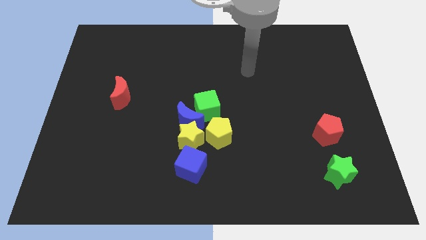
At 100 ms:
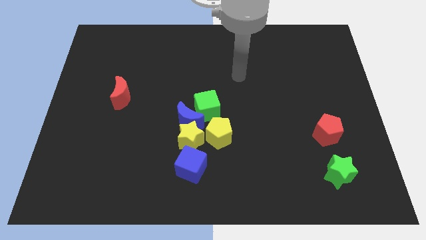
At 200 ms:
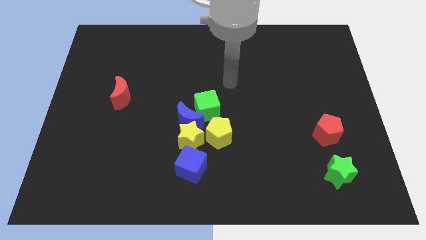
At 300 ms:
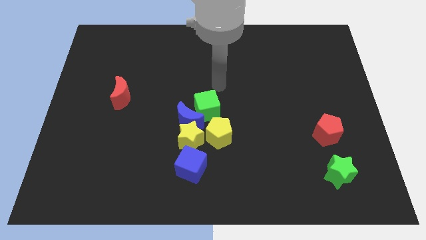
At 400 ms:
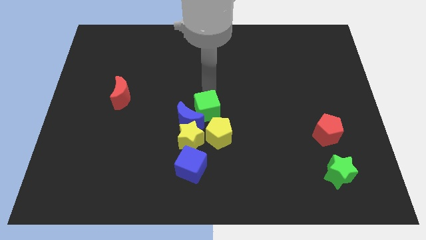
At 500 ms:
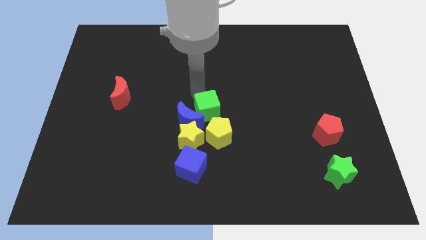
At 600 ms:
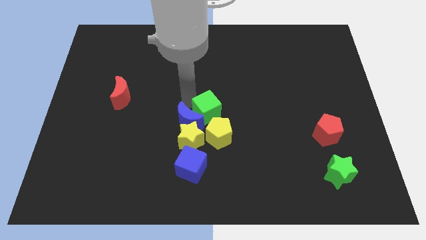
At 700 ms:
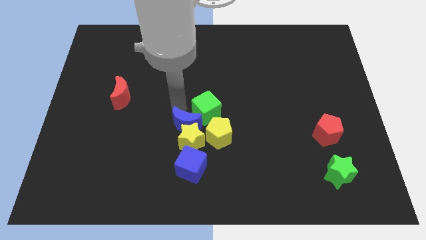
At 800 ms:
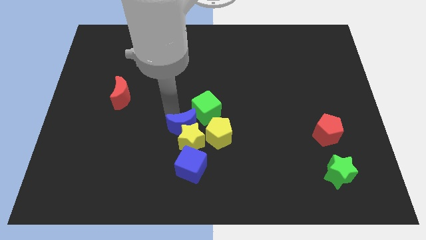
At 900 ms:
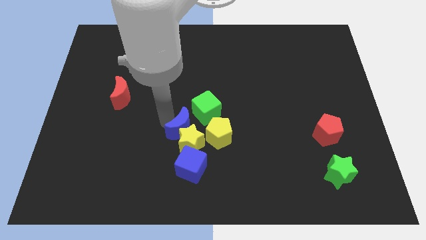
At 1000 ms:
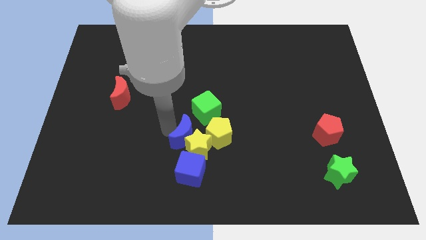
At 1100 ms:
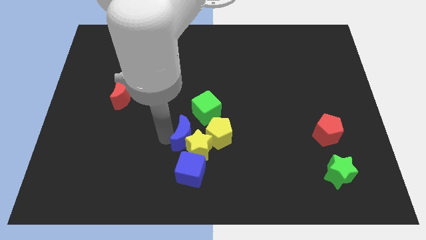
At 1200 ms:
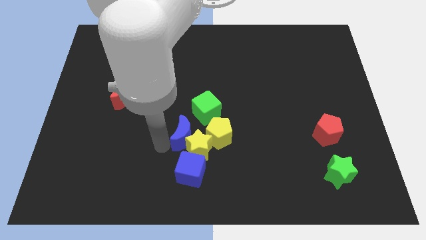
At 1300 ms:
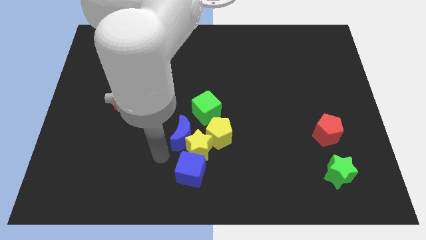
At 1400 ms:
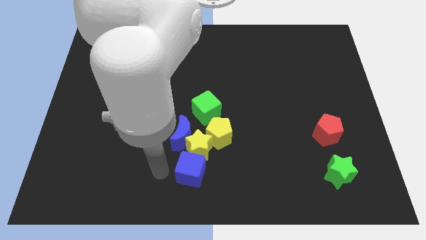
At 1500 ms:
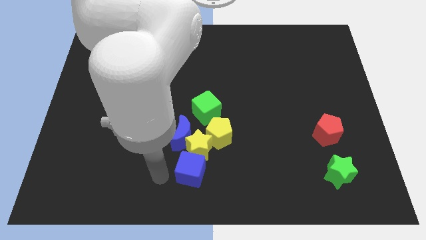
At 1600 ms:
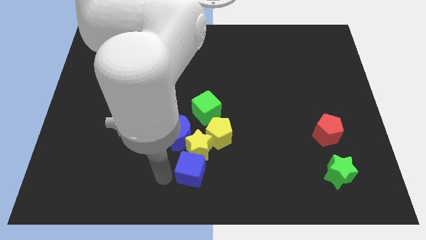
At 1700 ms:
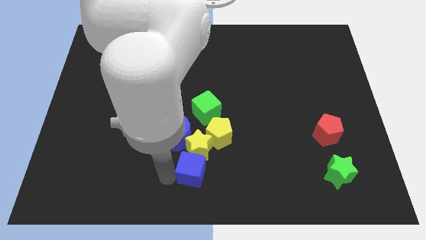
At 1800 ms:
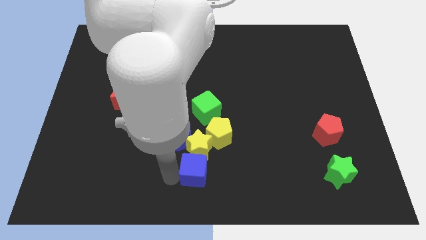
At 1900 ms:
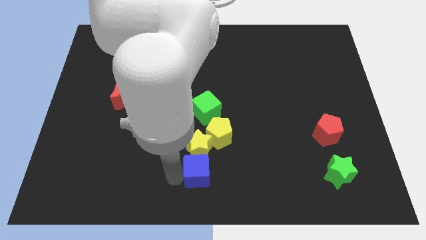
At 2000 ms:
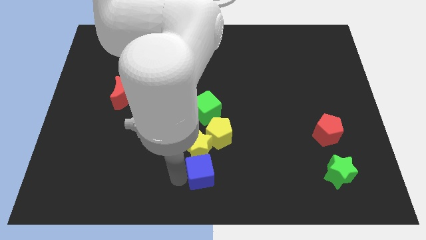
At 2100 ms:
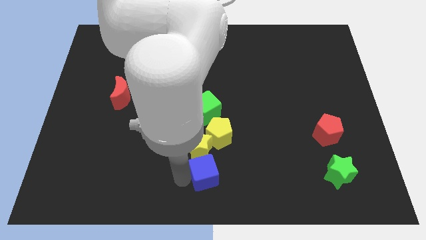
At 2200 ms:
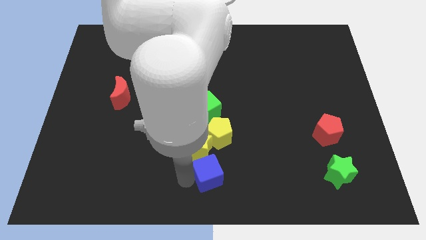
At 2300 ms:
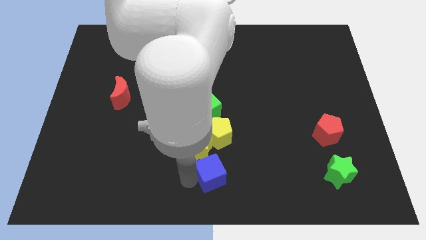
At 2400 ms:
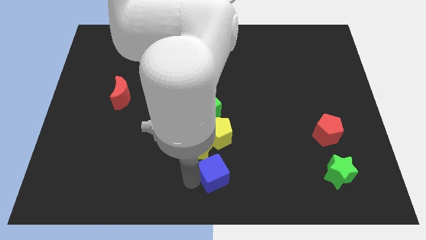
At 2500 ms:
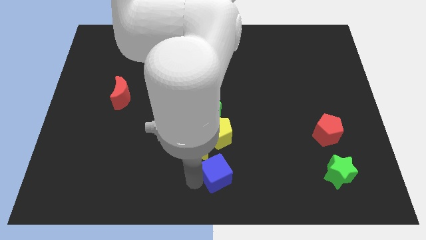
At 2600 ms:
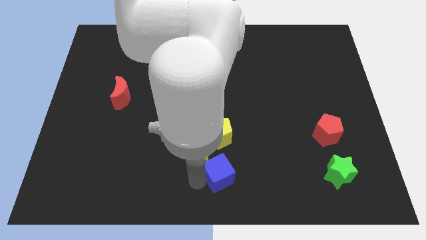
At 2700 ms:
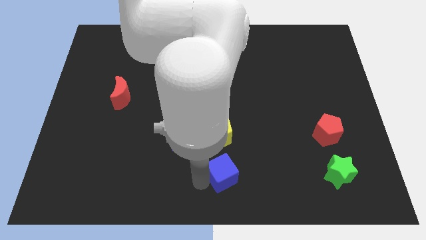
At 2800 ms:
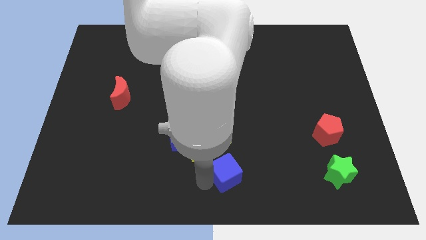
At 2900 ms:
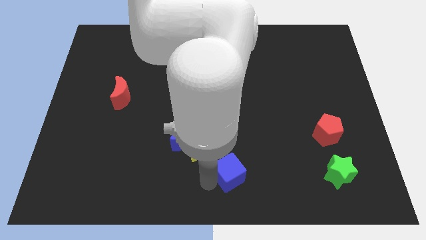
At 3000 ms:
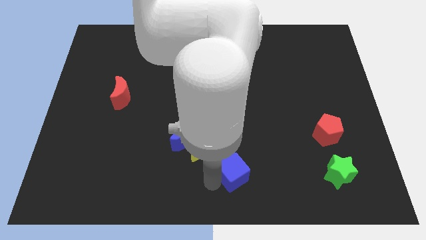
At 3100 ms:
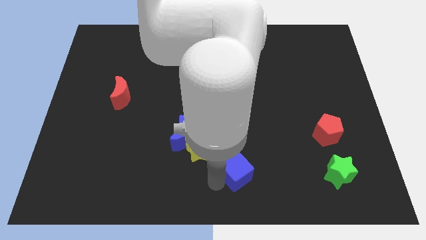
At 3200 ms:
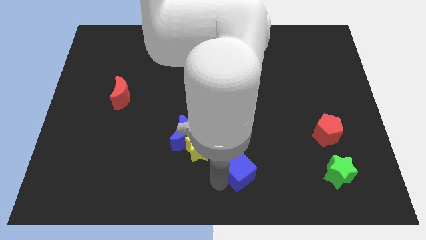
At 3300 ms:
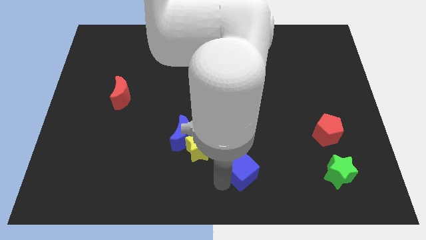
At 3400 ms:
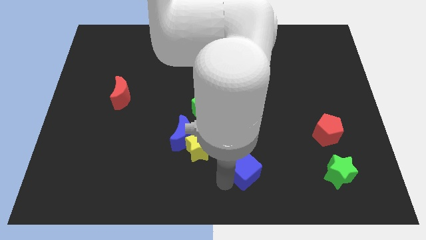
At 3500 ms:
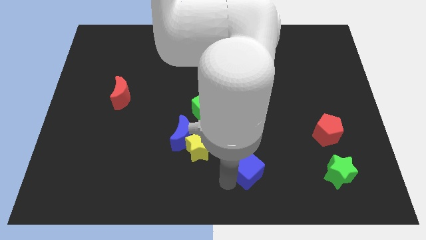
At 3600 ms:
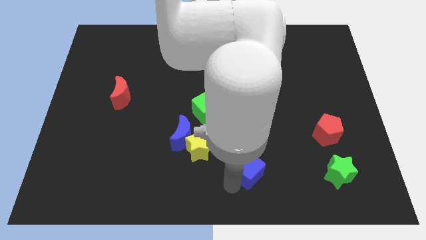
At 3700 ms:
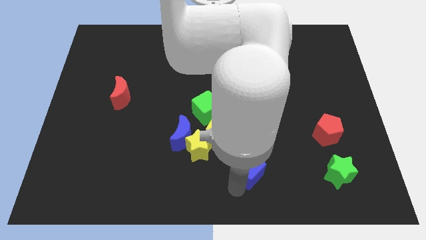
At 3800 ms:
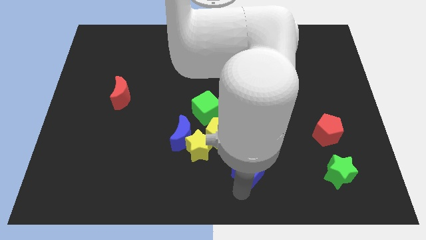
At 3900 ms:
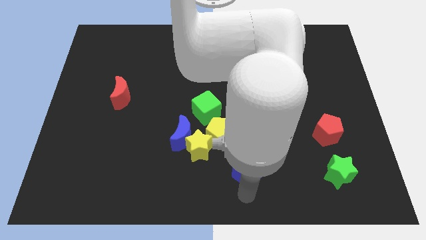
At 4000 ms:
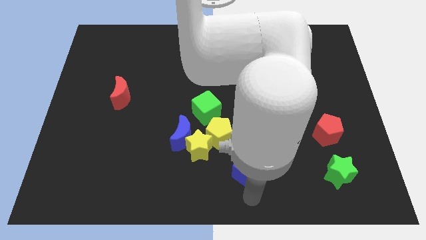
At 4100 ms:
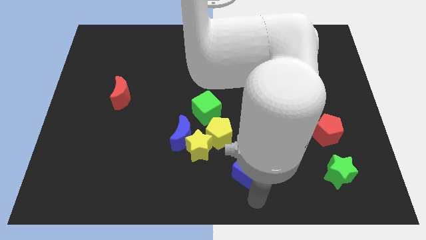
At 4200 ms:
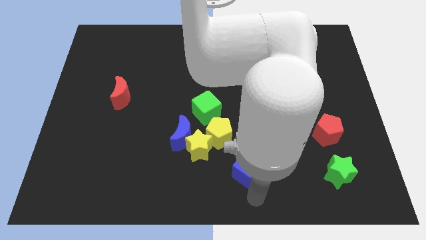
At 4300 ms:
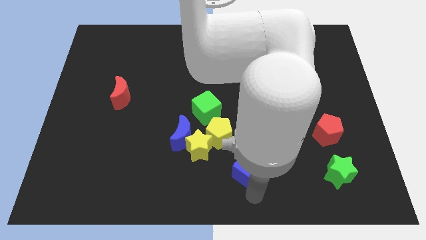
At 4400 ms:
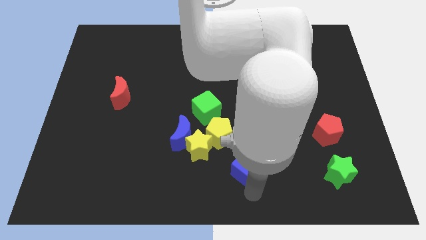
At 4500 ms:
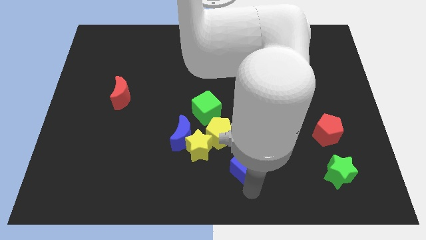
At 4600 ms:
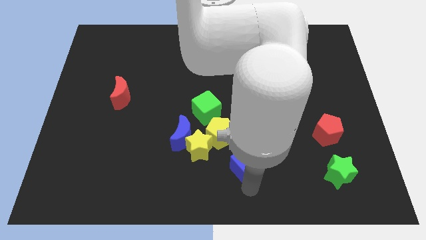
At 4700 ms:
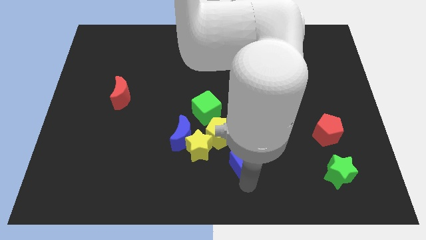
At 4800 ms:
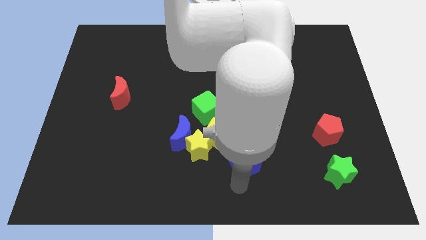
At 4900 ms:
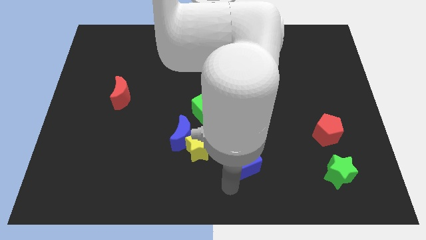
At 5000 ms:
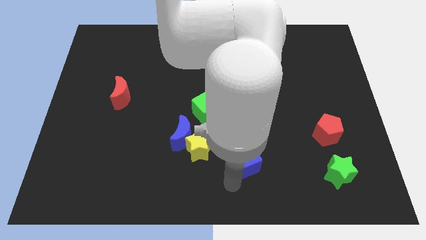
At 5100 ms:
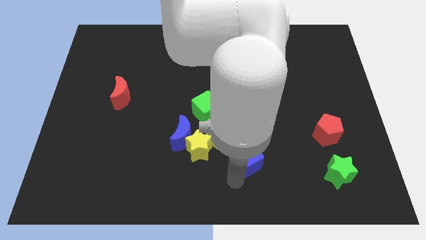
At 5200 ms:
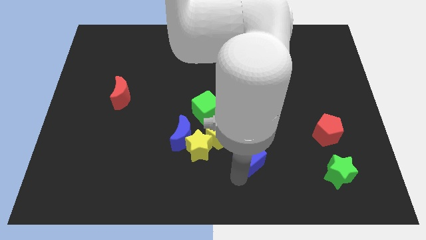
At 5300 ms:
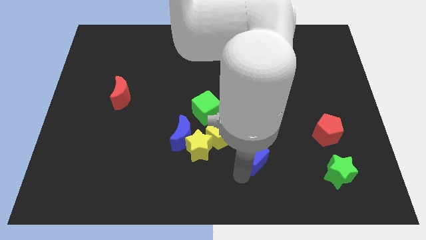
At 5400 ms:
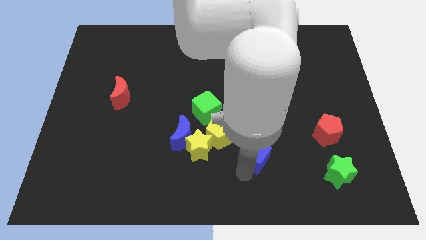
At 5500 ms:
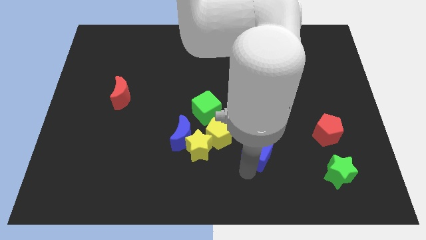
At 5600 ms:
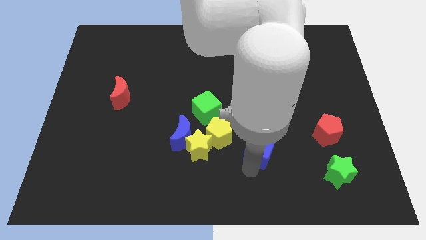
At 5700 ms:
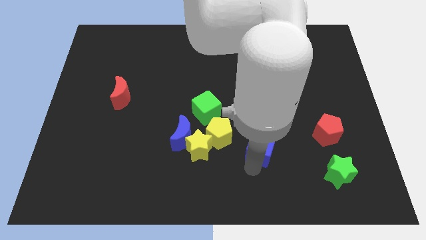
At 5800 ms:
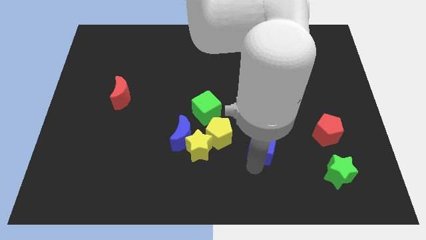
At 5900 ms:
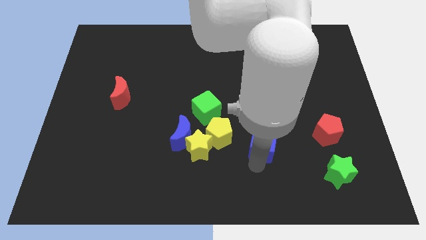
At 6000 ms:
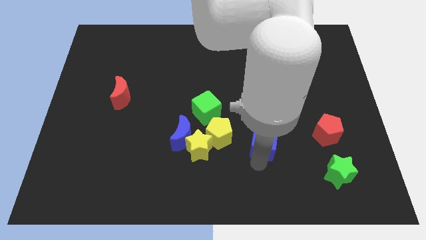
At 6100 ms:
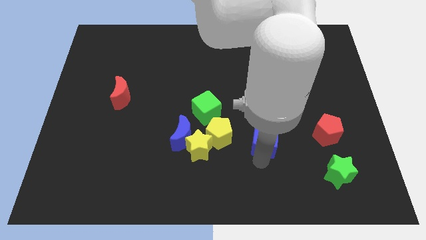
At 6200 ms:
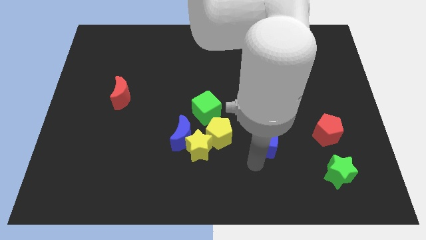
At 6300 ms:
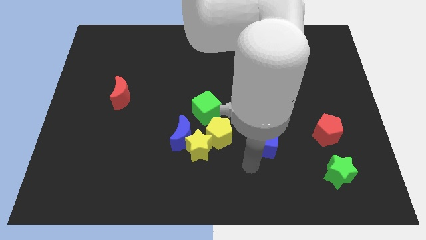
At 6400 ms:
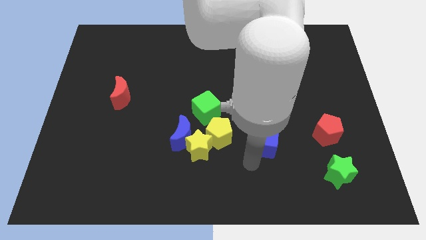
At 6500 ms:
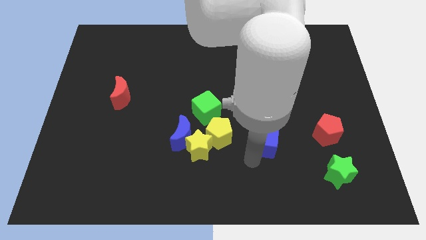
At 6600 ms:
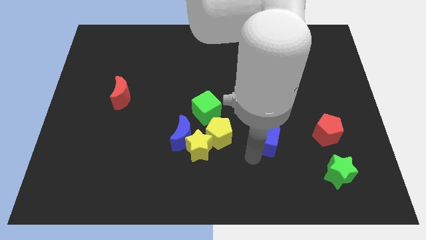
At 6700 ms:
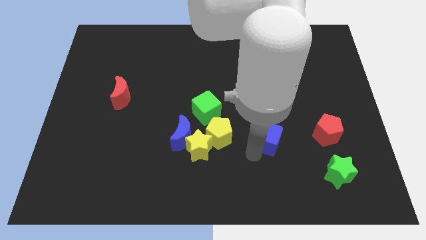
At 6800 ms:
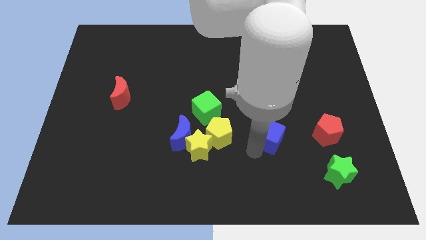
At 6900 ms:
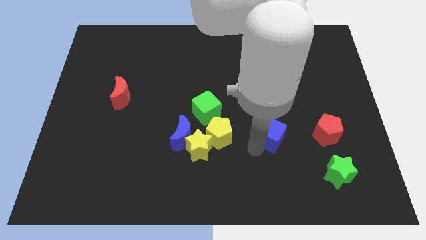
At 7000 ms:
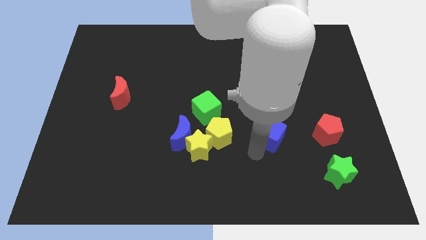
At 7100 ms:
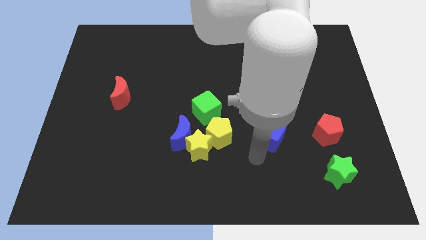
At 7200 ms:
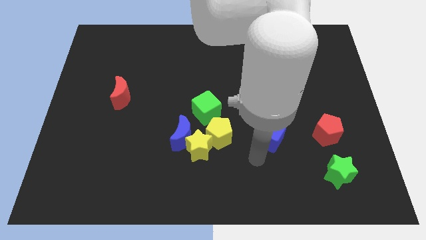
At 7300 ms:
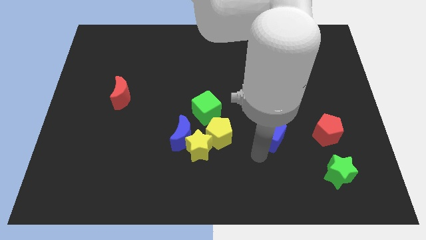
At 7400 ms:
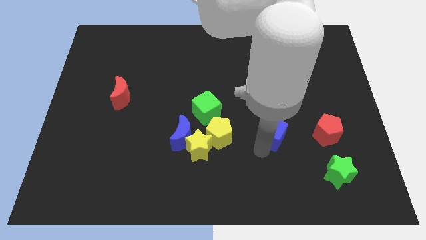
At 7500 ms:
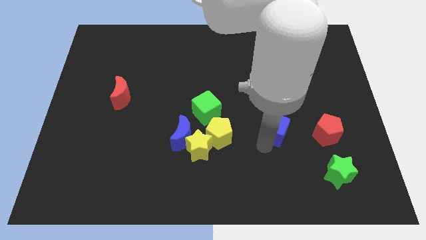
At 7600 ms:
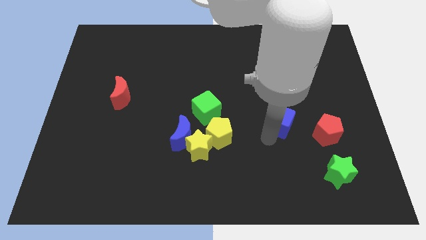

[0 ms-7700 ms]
push the blue cube upwards and to the right

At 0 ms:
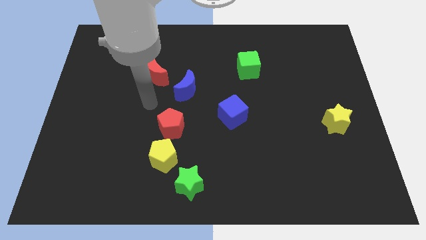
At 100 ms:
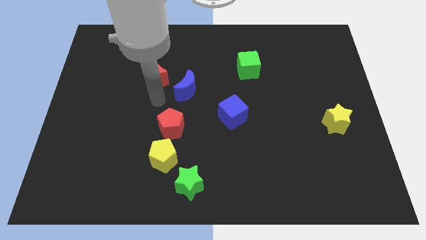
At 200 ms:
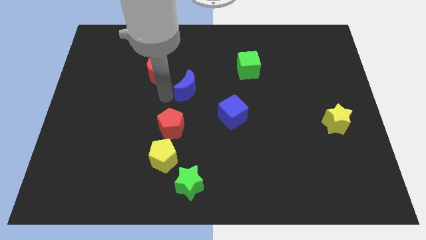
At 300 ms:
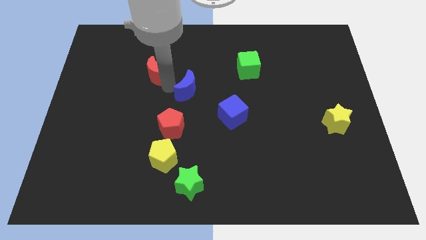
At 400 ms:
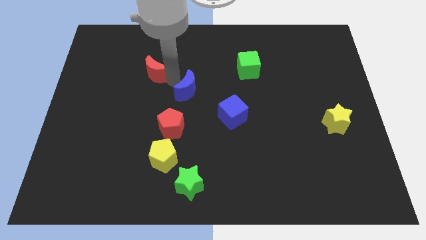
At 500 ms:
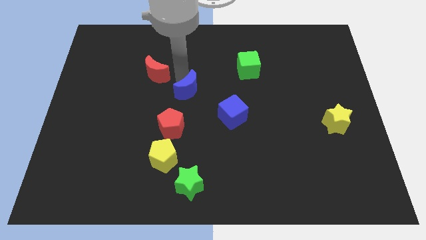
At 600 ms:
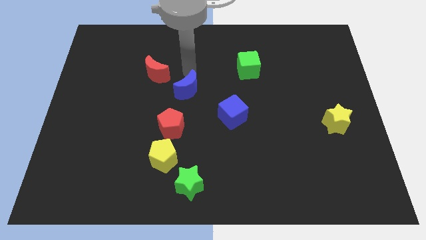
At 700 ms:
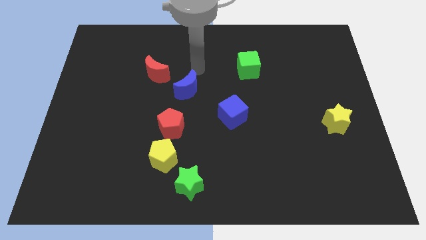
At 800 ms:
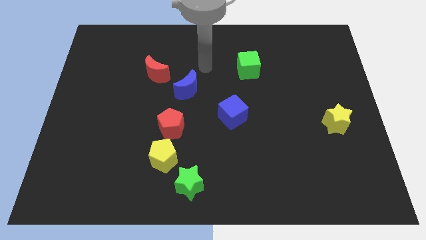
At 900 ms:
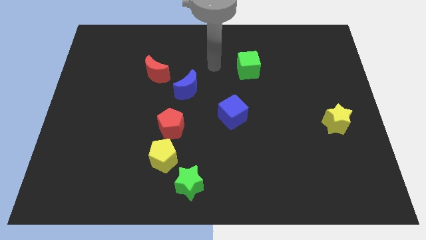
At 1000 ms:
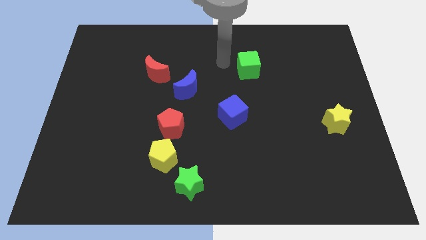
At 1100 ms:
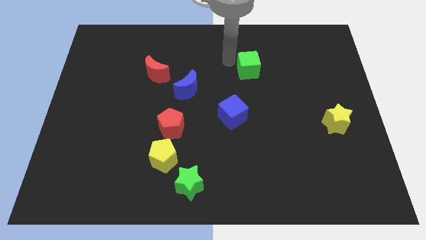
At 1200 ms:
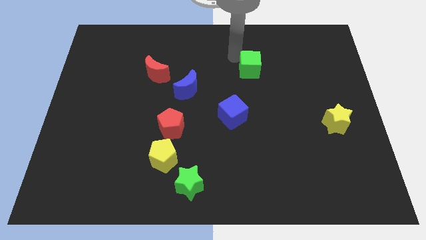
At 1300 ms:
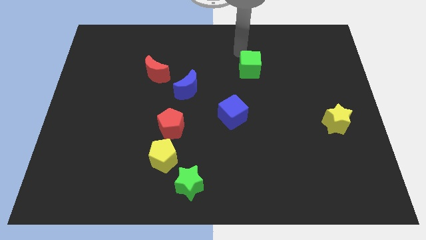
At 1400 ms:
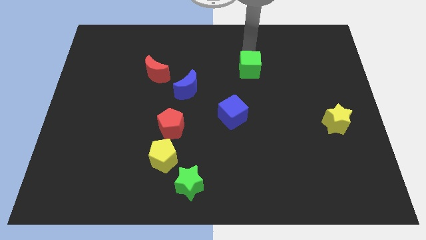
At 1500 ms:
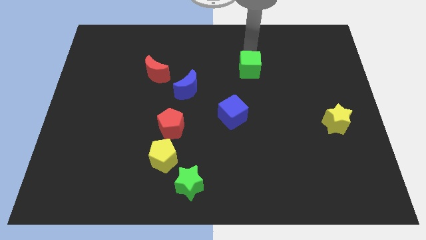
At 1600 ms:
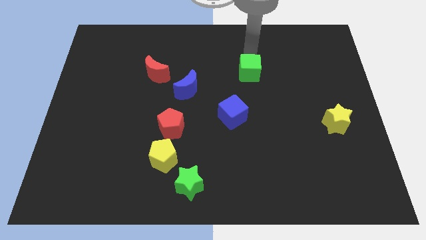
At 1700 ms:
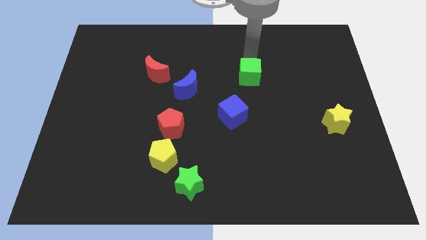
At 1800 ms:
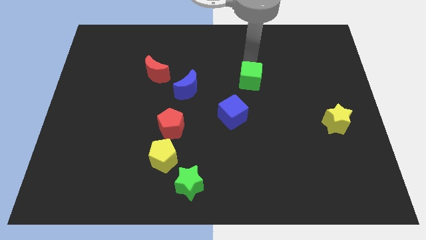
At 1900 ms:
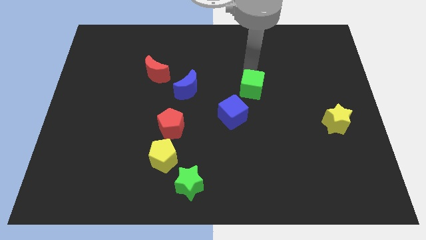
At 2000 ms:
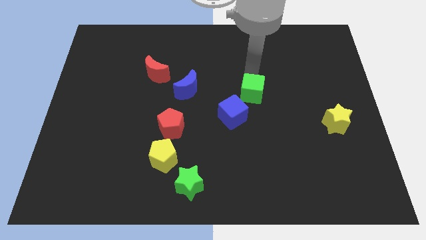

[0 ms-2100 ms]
slightly push the green cube downwards
